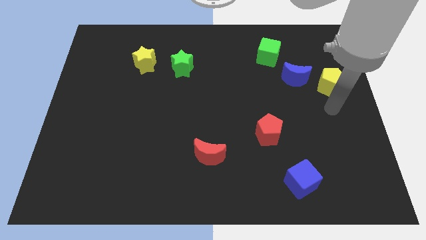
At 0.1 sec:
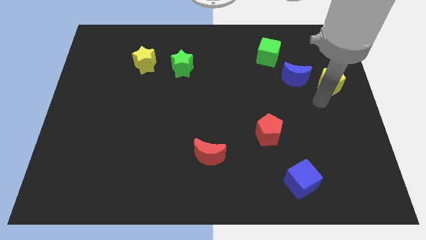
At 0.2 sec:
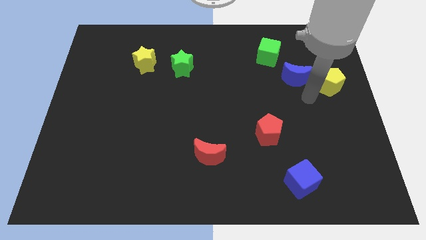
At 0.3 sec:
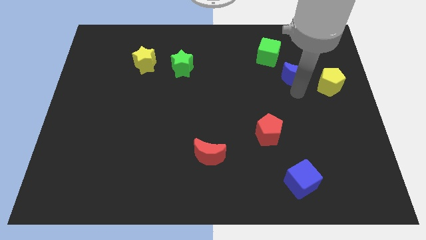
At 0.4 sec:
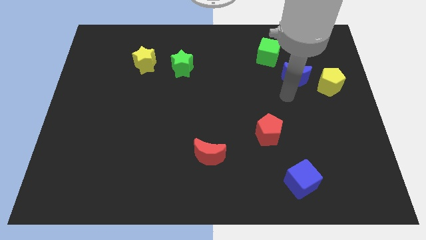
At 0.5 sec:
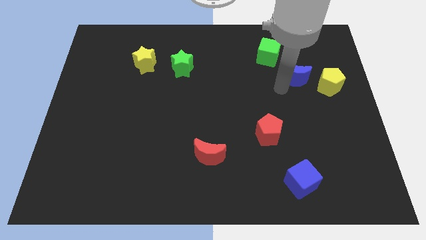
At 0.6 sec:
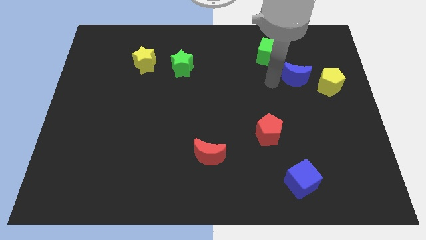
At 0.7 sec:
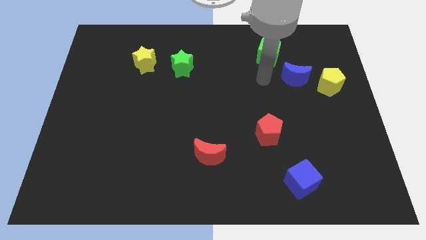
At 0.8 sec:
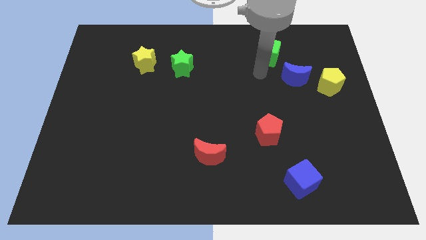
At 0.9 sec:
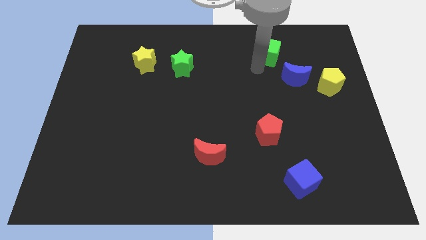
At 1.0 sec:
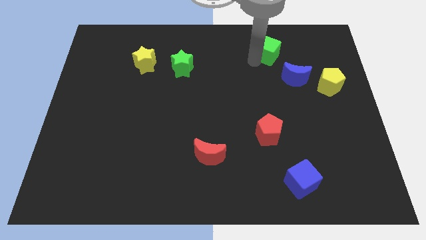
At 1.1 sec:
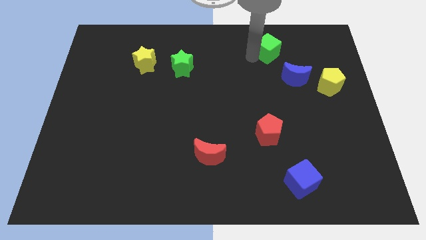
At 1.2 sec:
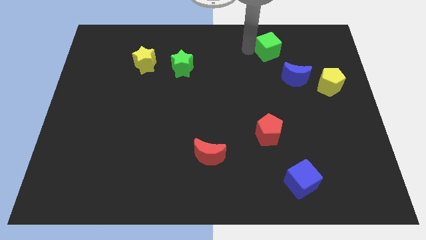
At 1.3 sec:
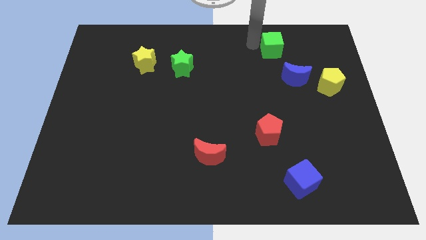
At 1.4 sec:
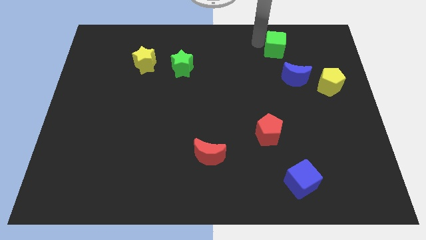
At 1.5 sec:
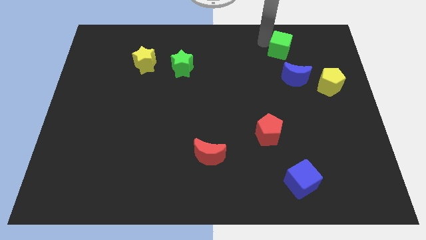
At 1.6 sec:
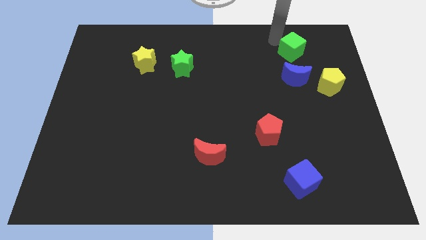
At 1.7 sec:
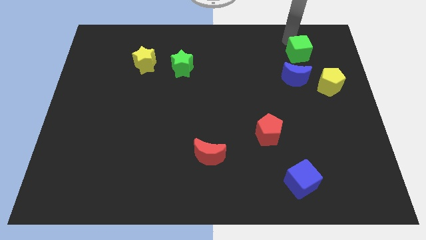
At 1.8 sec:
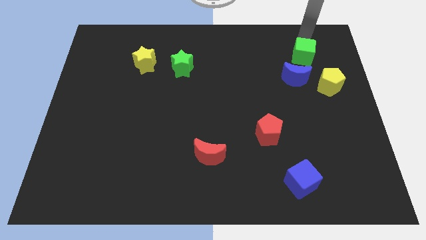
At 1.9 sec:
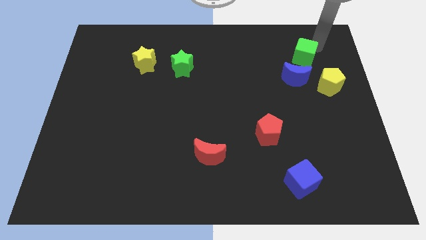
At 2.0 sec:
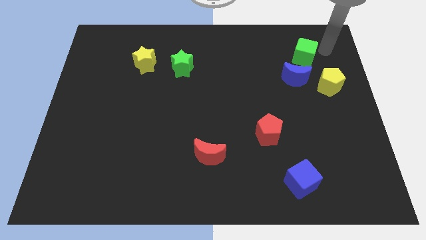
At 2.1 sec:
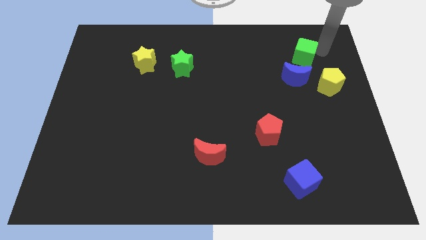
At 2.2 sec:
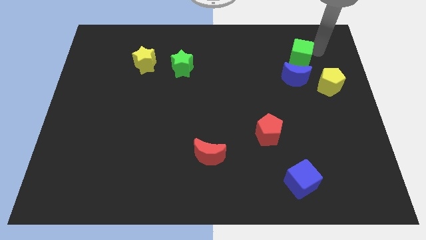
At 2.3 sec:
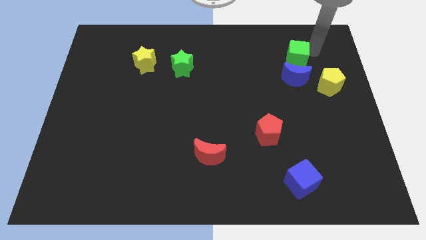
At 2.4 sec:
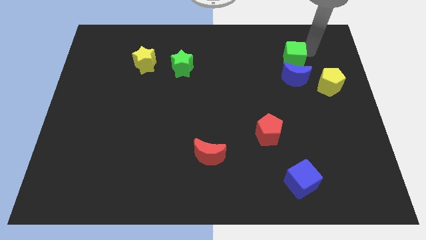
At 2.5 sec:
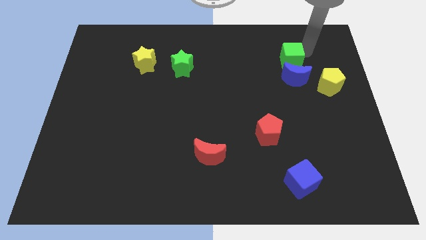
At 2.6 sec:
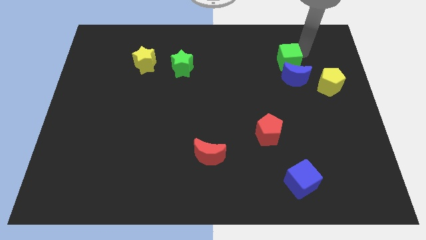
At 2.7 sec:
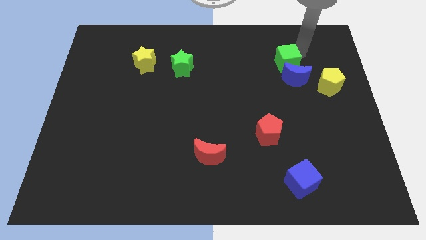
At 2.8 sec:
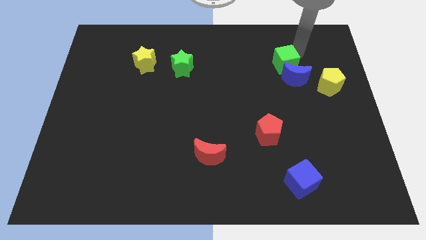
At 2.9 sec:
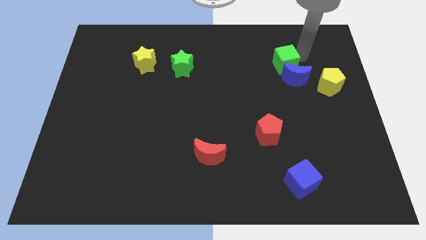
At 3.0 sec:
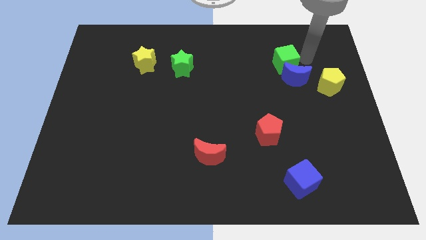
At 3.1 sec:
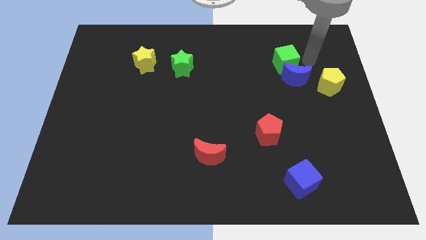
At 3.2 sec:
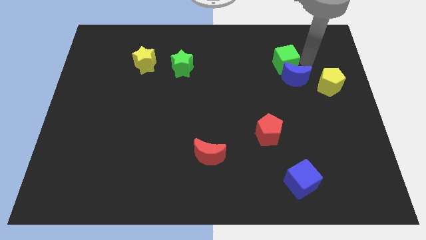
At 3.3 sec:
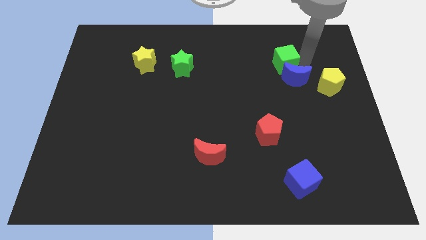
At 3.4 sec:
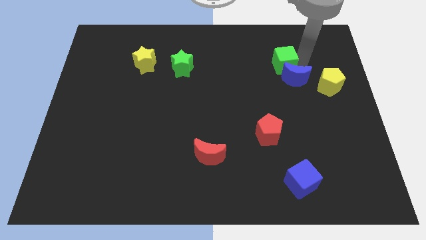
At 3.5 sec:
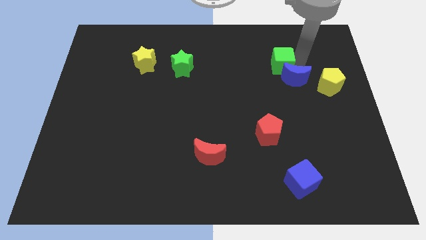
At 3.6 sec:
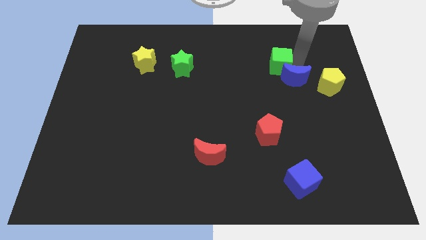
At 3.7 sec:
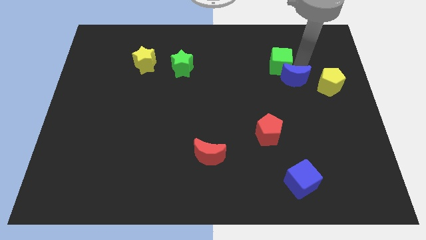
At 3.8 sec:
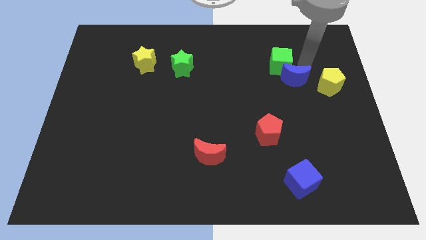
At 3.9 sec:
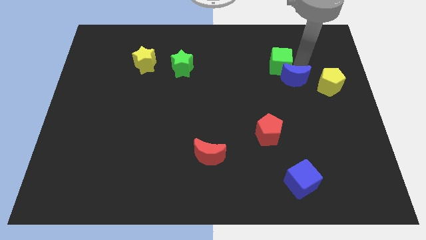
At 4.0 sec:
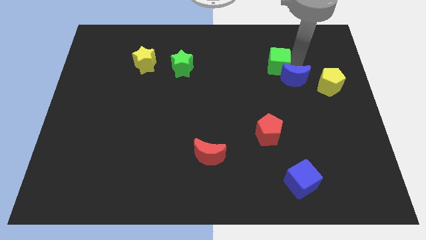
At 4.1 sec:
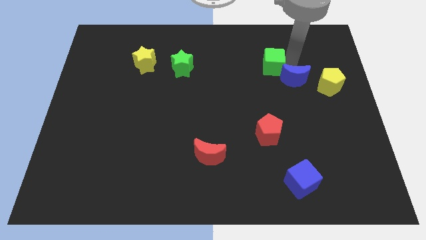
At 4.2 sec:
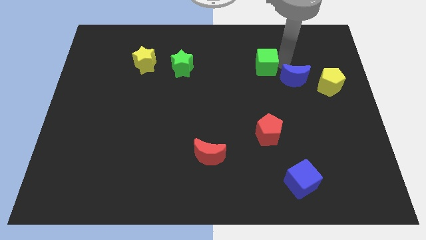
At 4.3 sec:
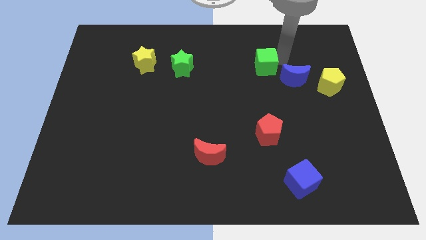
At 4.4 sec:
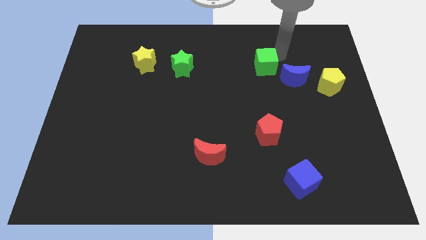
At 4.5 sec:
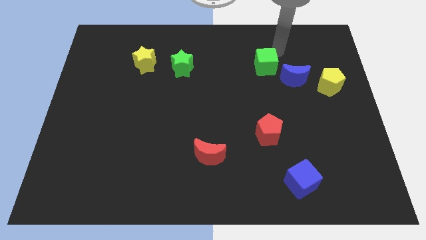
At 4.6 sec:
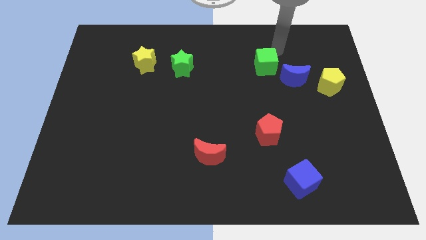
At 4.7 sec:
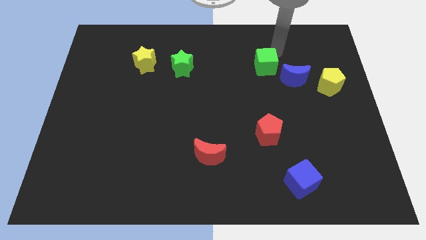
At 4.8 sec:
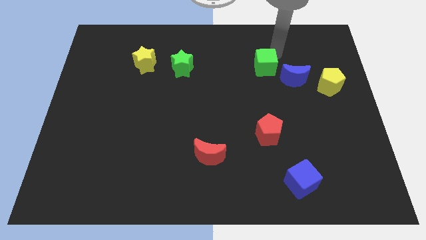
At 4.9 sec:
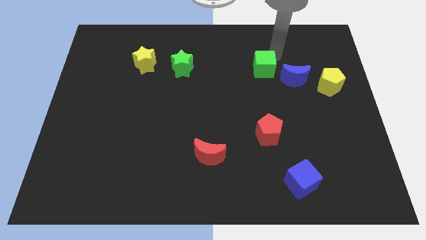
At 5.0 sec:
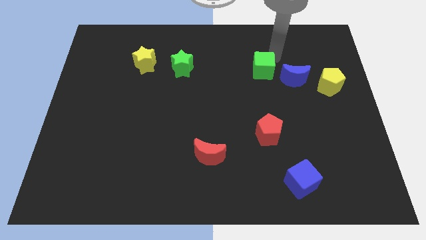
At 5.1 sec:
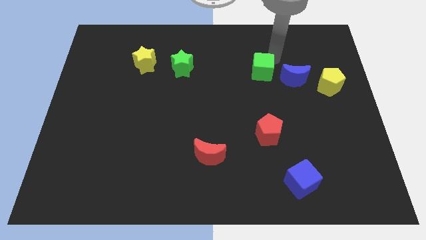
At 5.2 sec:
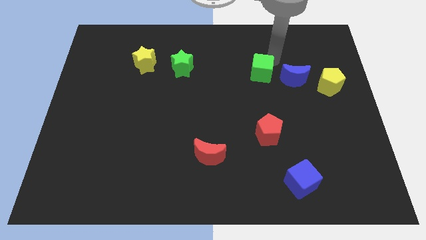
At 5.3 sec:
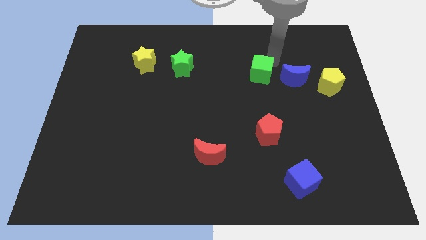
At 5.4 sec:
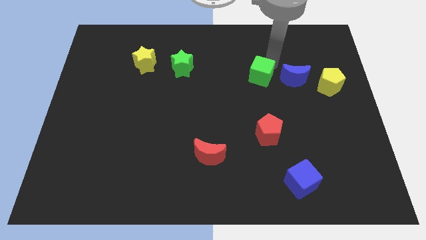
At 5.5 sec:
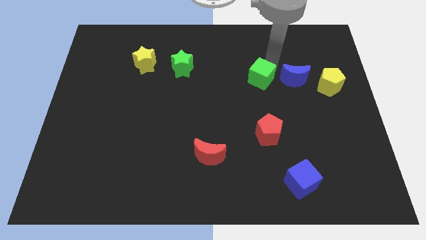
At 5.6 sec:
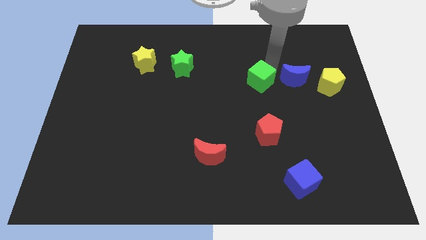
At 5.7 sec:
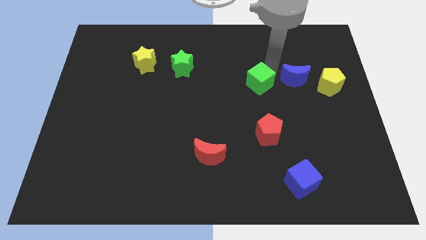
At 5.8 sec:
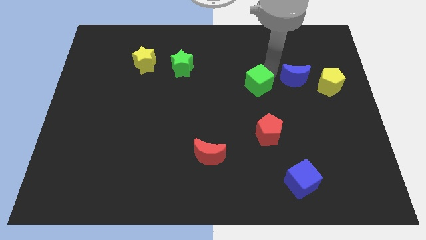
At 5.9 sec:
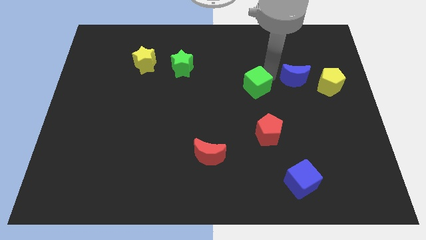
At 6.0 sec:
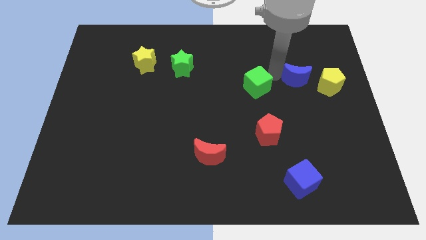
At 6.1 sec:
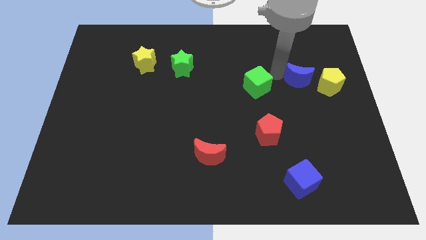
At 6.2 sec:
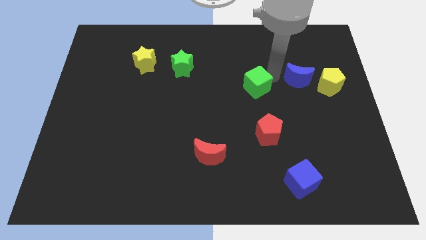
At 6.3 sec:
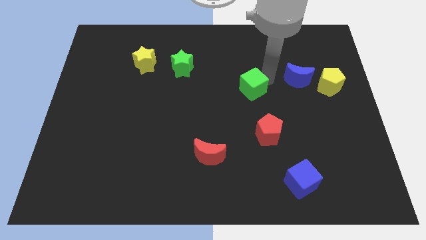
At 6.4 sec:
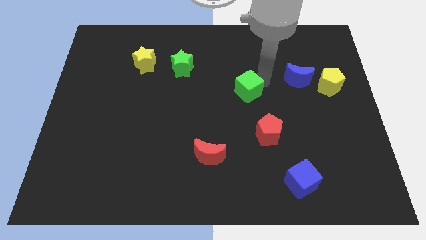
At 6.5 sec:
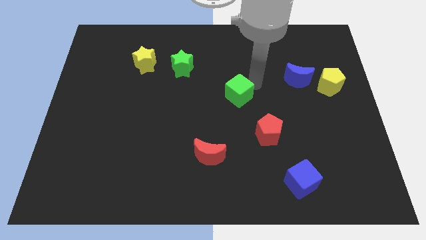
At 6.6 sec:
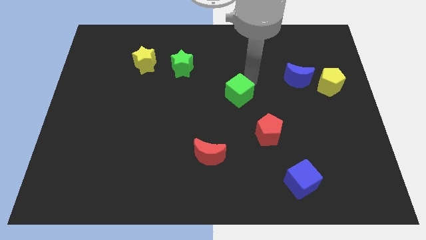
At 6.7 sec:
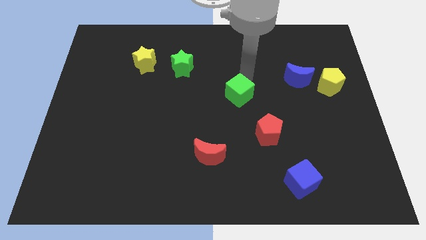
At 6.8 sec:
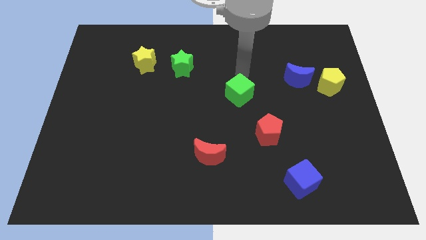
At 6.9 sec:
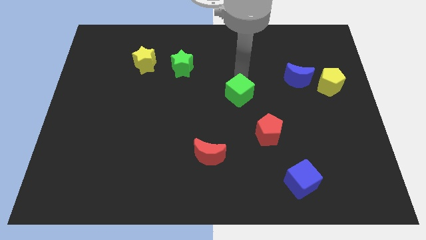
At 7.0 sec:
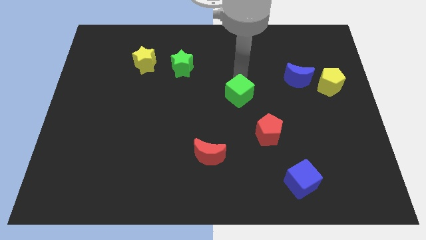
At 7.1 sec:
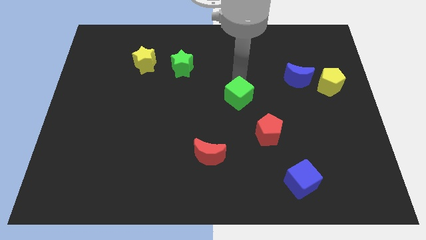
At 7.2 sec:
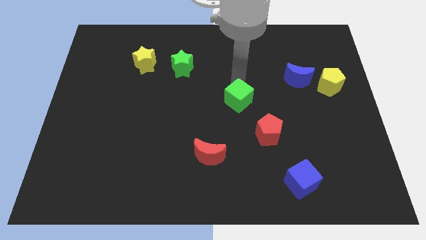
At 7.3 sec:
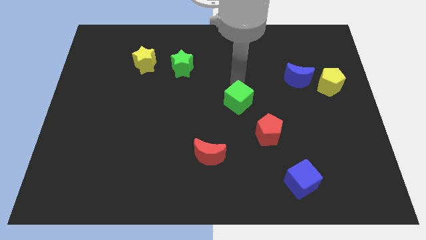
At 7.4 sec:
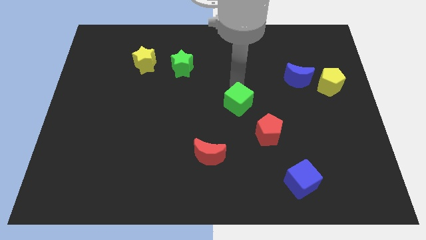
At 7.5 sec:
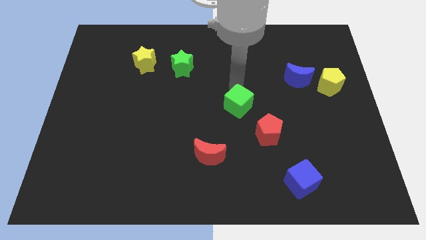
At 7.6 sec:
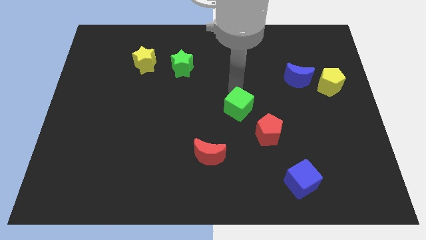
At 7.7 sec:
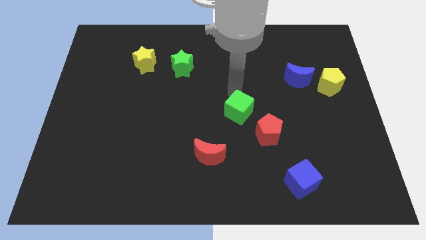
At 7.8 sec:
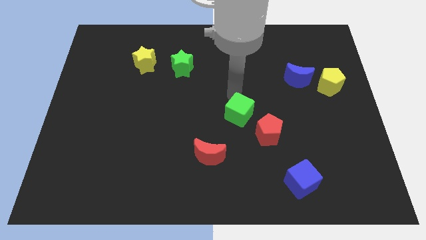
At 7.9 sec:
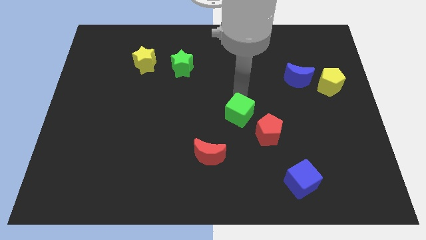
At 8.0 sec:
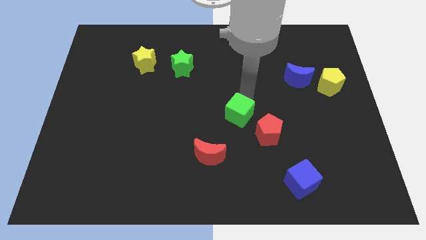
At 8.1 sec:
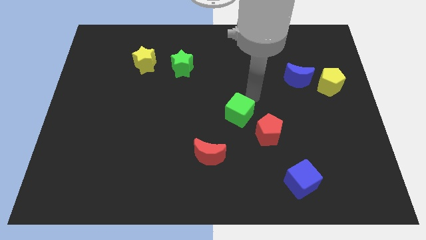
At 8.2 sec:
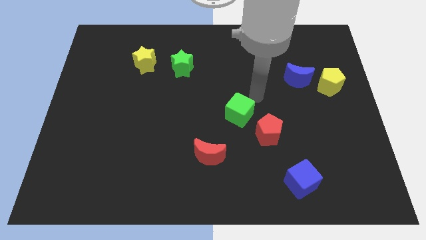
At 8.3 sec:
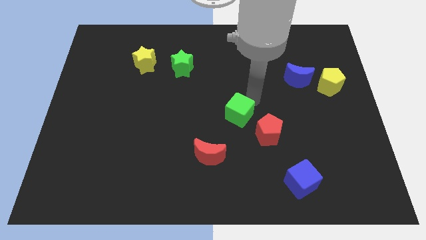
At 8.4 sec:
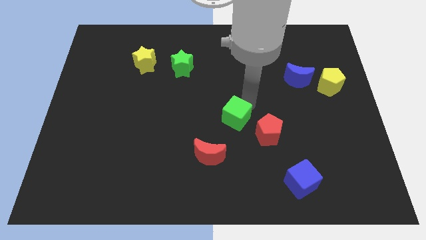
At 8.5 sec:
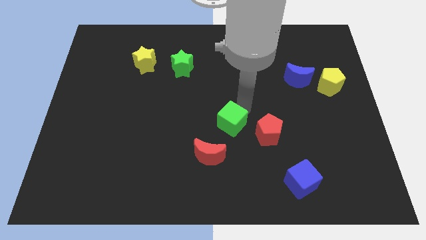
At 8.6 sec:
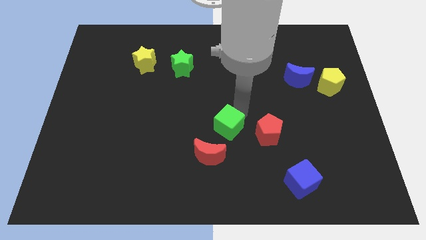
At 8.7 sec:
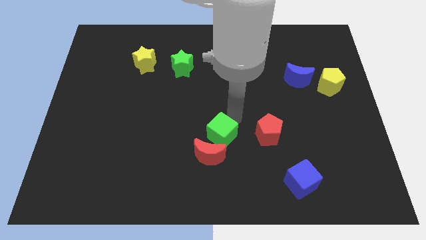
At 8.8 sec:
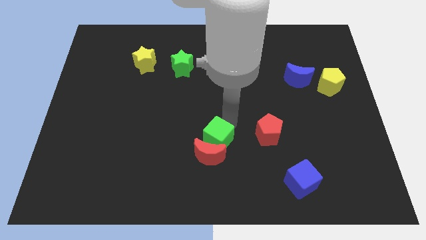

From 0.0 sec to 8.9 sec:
put the green cube next to the red moon
